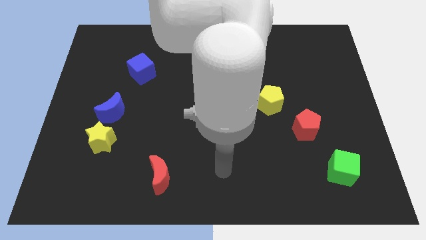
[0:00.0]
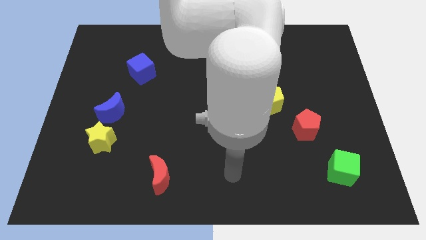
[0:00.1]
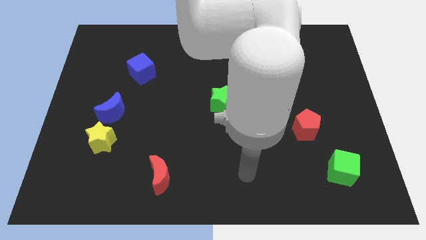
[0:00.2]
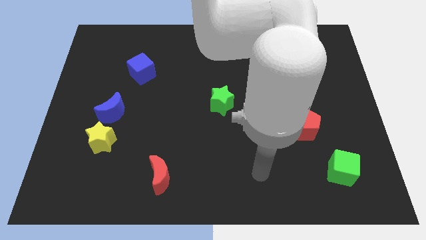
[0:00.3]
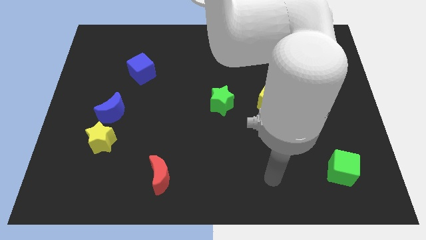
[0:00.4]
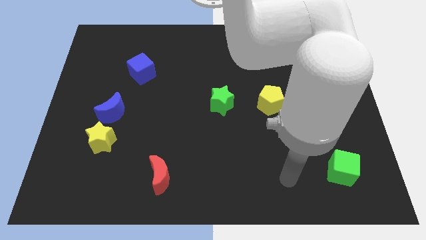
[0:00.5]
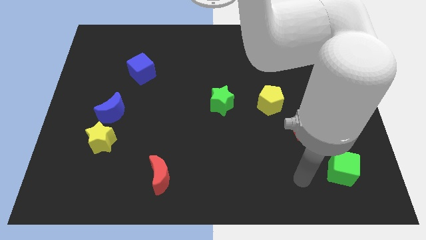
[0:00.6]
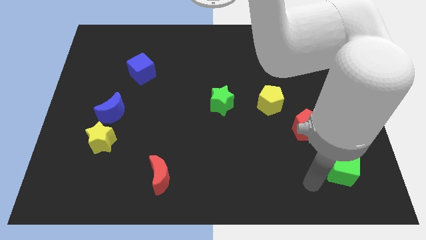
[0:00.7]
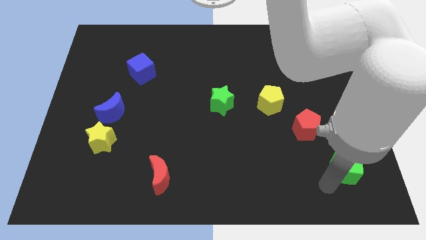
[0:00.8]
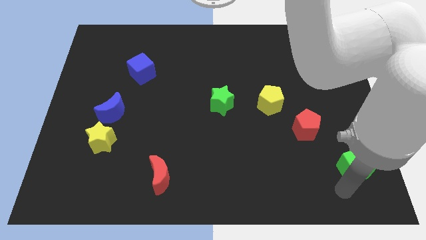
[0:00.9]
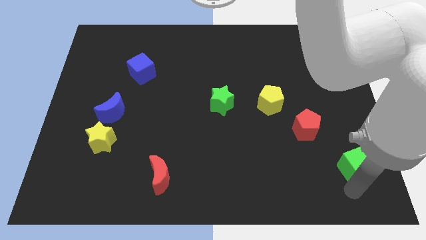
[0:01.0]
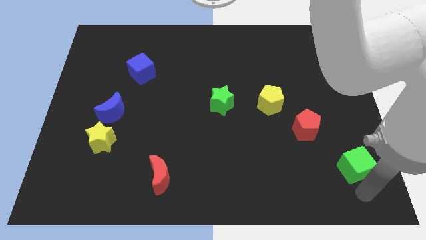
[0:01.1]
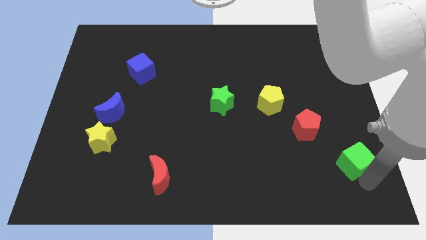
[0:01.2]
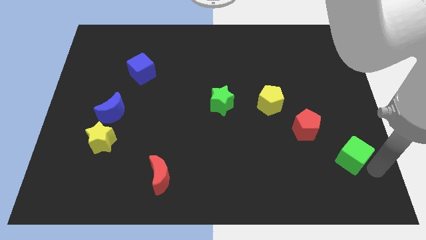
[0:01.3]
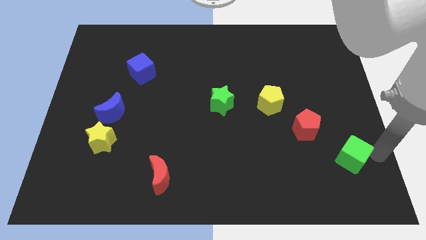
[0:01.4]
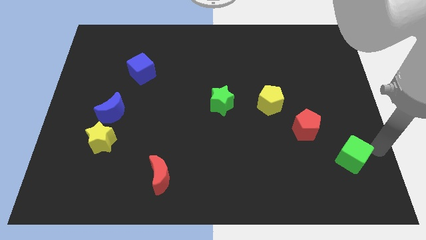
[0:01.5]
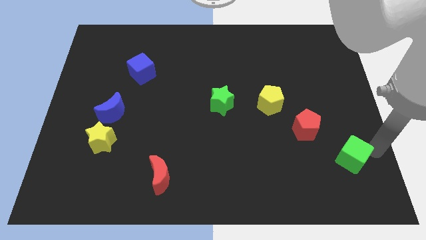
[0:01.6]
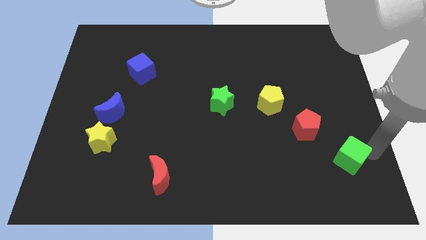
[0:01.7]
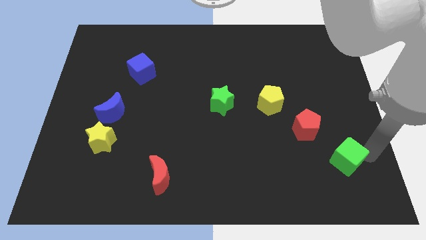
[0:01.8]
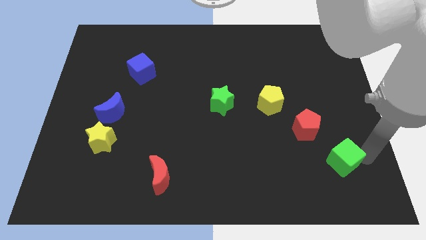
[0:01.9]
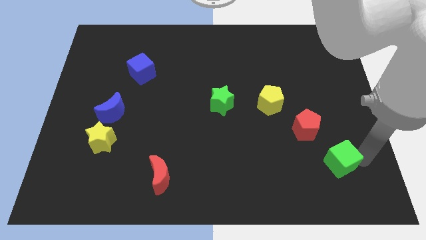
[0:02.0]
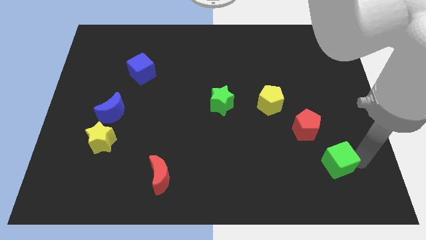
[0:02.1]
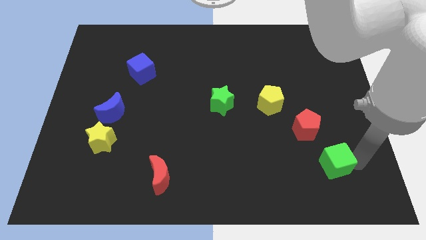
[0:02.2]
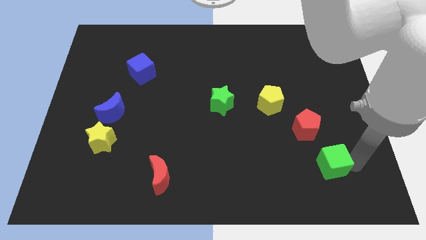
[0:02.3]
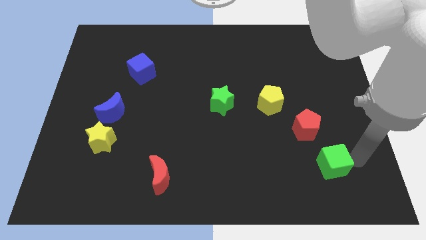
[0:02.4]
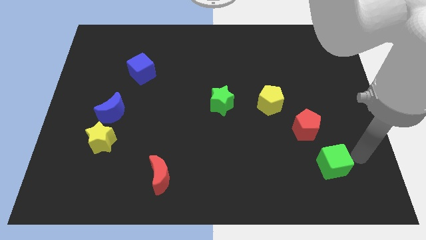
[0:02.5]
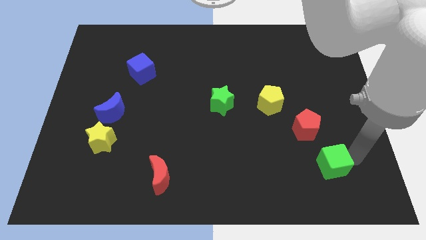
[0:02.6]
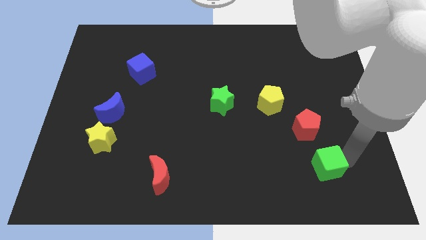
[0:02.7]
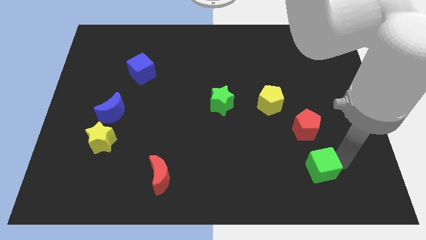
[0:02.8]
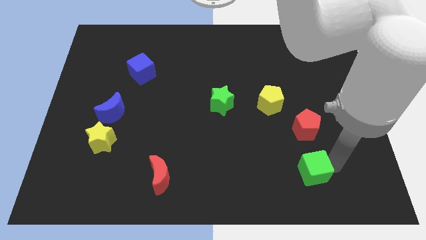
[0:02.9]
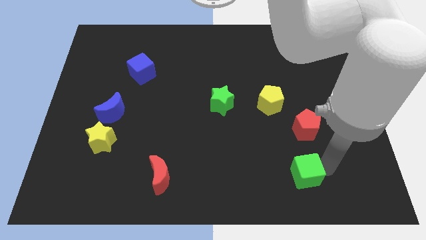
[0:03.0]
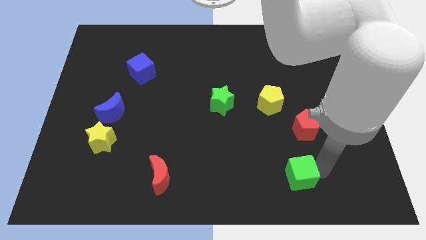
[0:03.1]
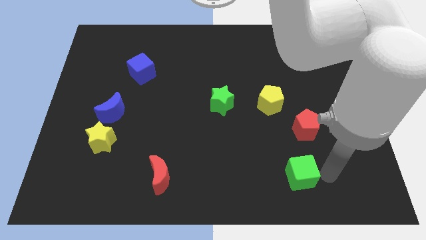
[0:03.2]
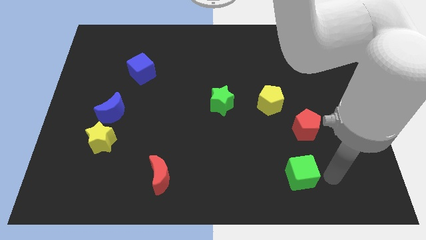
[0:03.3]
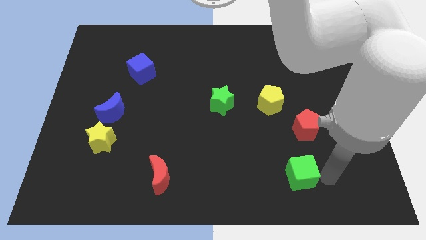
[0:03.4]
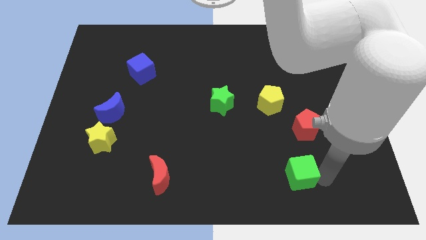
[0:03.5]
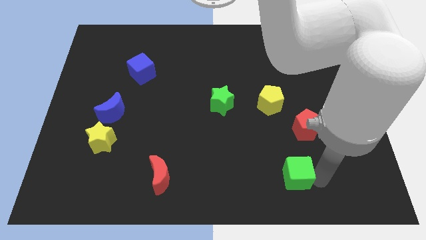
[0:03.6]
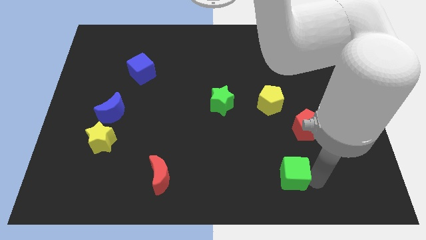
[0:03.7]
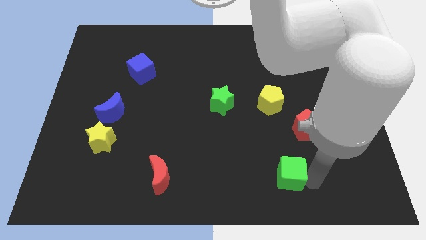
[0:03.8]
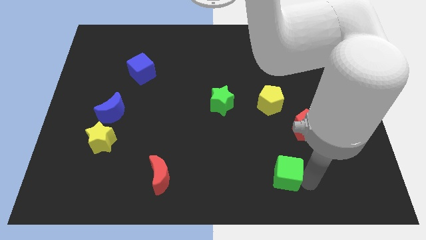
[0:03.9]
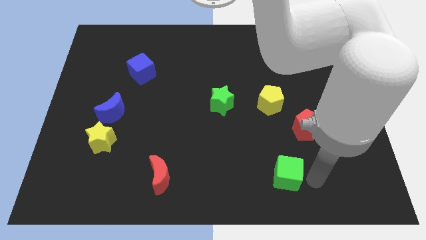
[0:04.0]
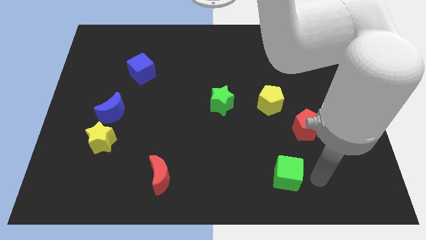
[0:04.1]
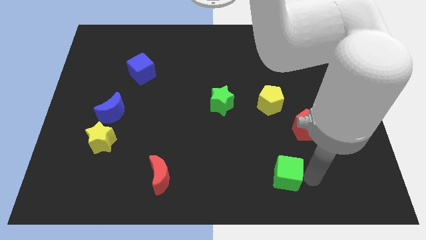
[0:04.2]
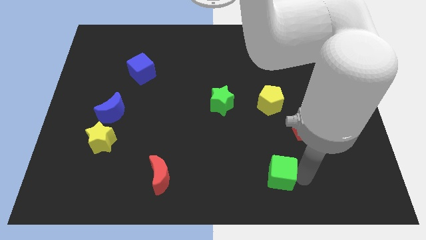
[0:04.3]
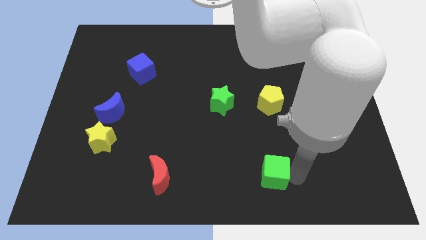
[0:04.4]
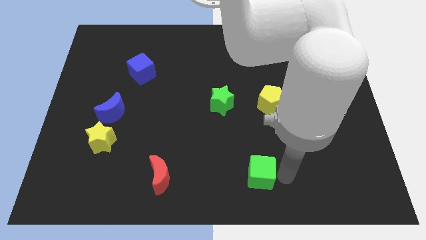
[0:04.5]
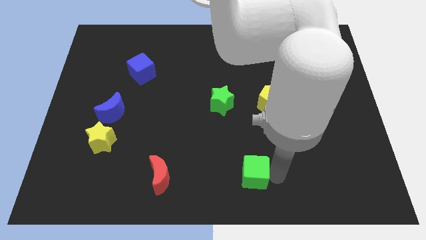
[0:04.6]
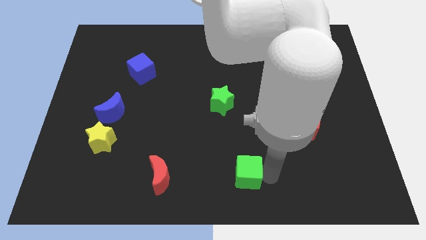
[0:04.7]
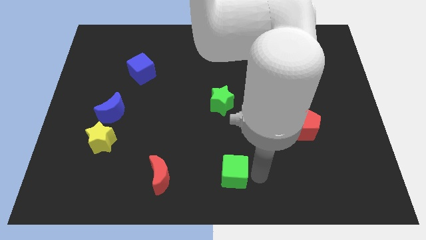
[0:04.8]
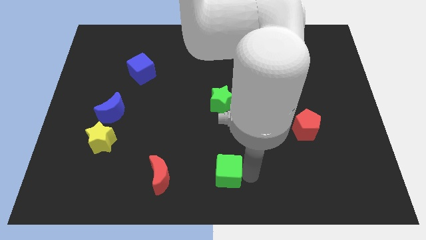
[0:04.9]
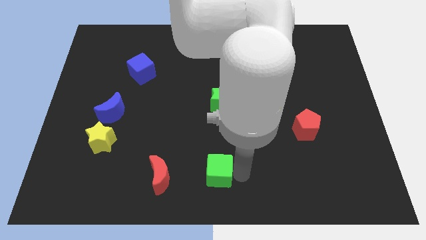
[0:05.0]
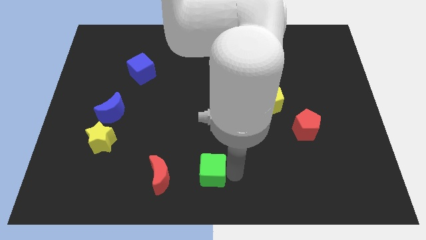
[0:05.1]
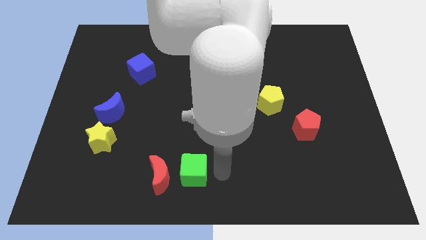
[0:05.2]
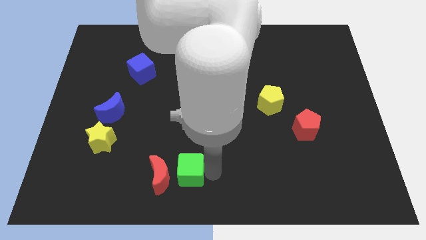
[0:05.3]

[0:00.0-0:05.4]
slide the green cube next to the red moon

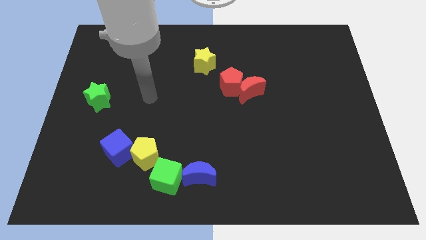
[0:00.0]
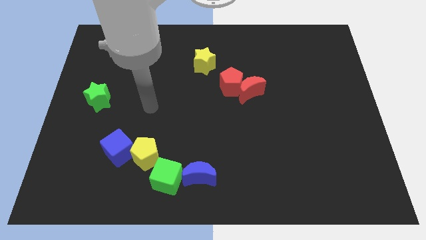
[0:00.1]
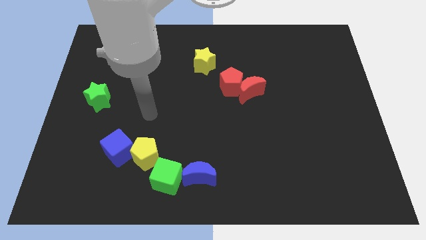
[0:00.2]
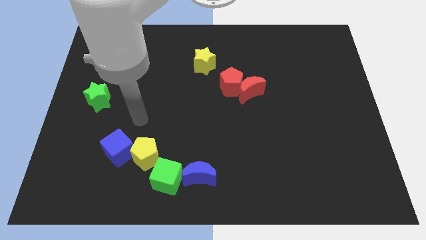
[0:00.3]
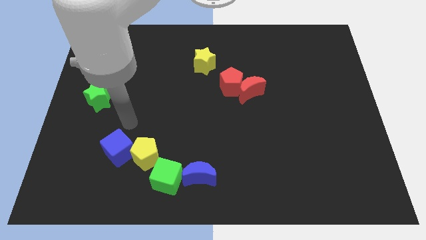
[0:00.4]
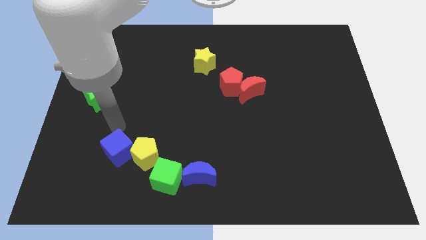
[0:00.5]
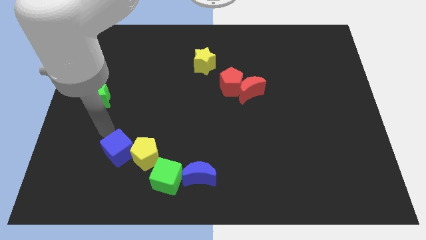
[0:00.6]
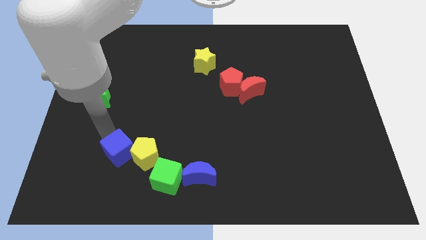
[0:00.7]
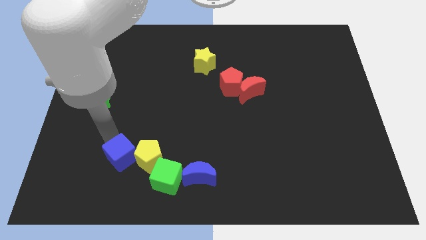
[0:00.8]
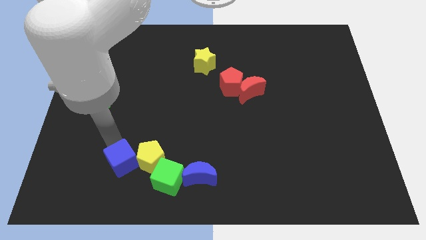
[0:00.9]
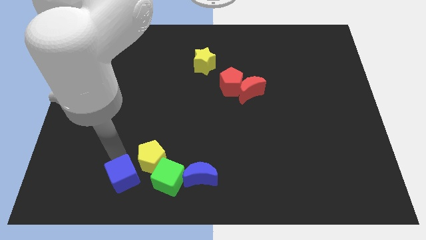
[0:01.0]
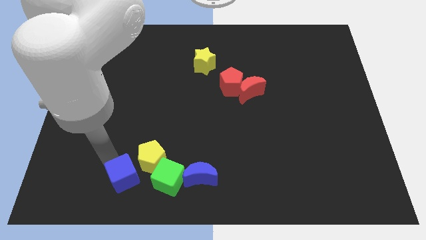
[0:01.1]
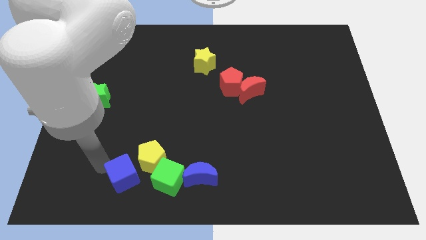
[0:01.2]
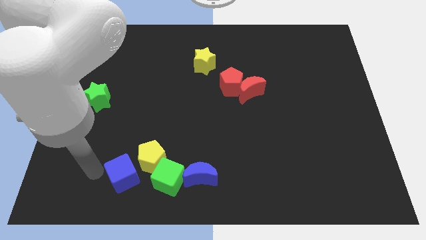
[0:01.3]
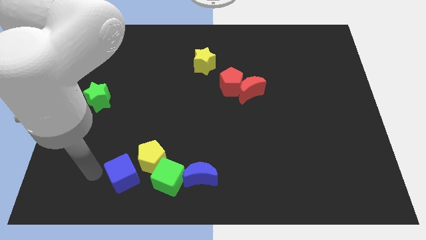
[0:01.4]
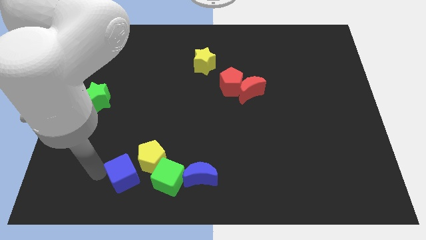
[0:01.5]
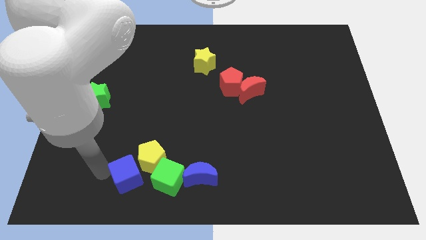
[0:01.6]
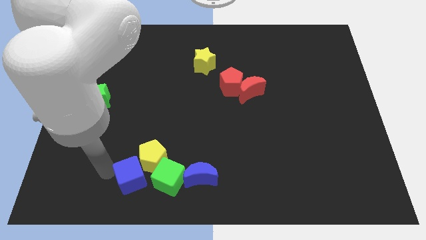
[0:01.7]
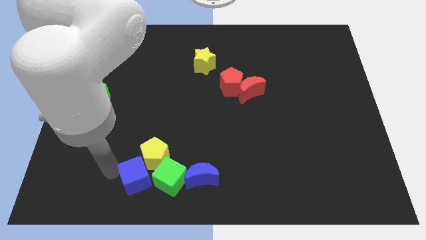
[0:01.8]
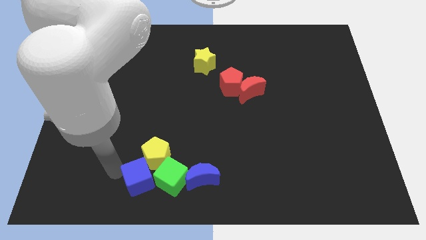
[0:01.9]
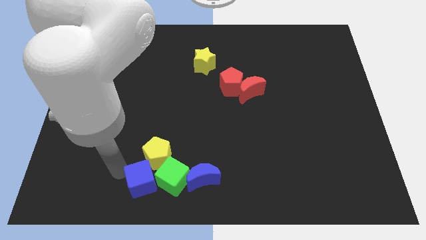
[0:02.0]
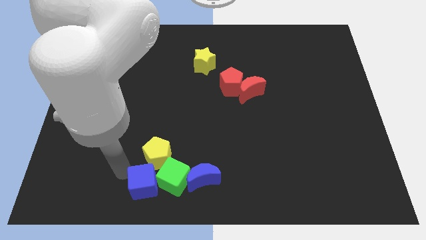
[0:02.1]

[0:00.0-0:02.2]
push the blue cube to the green cube
